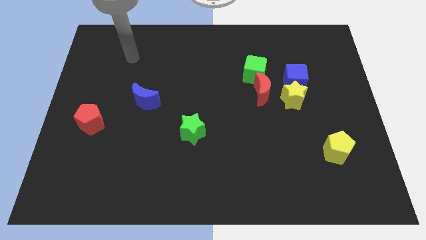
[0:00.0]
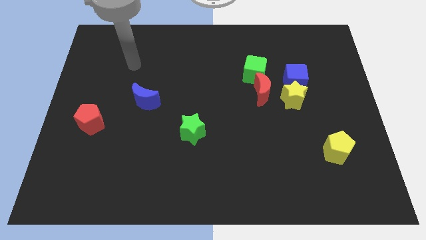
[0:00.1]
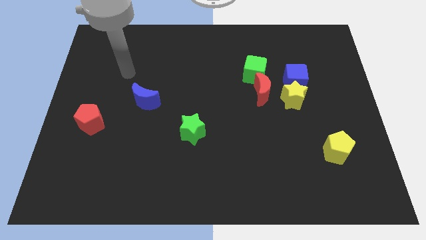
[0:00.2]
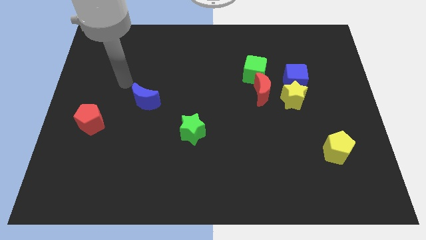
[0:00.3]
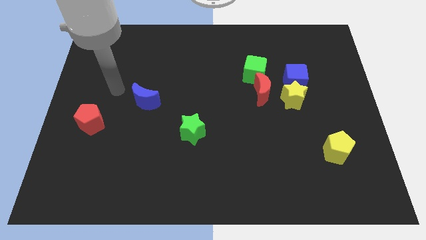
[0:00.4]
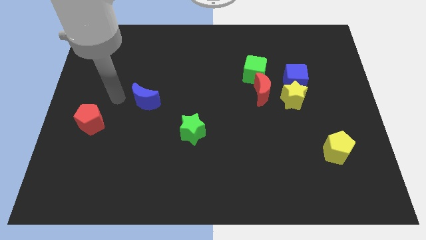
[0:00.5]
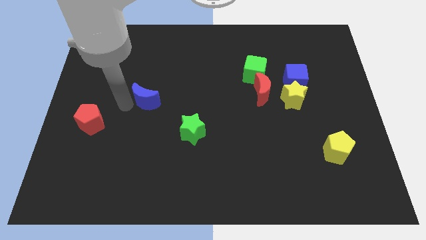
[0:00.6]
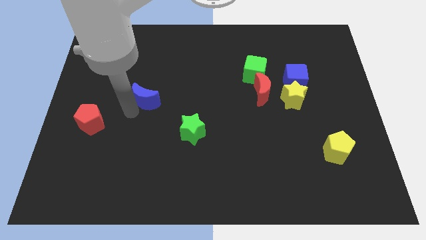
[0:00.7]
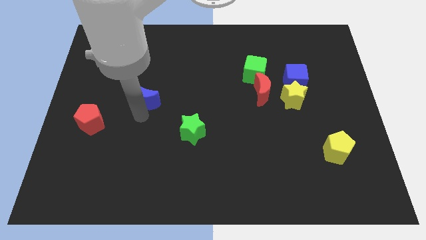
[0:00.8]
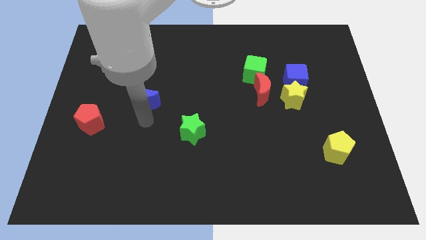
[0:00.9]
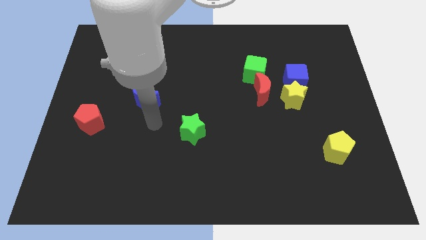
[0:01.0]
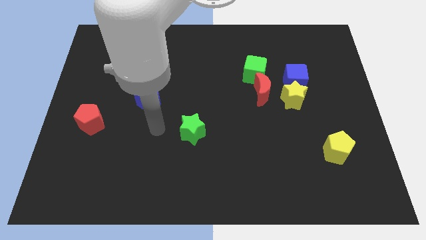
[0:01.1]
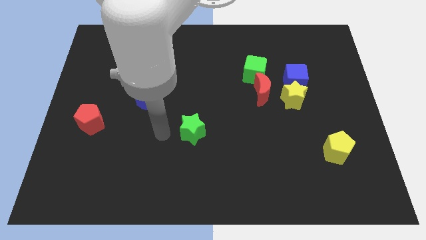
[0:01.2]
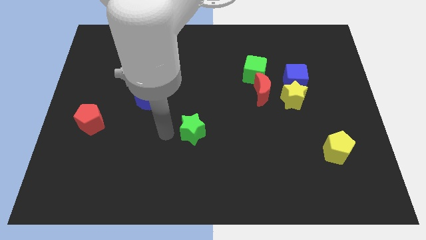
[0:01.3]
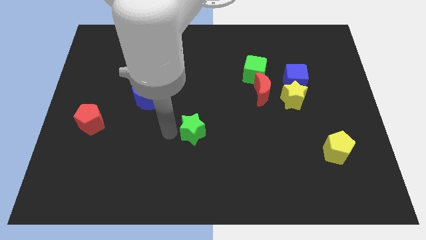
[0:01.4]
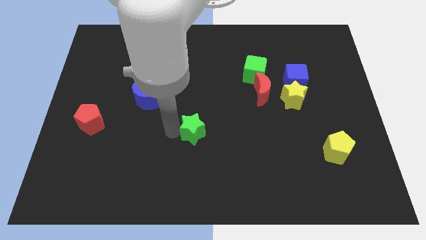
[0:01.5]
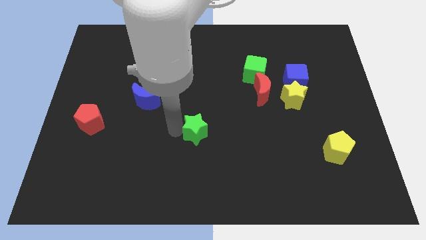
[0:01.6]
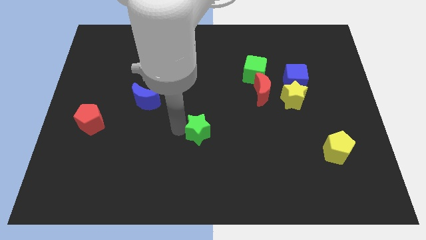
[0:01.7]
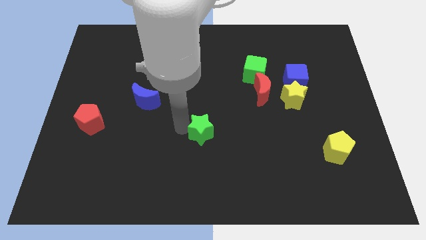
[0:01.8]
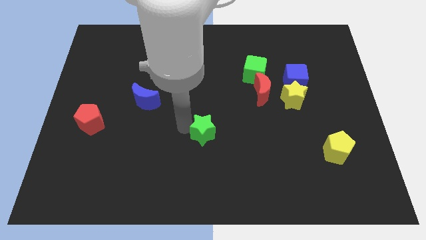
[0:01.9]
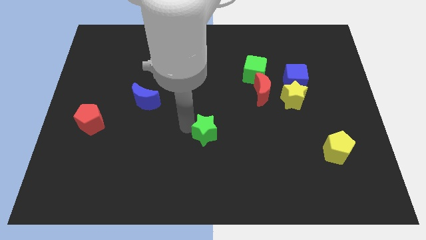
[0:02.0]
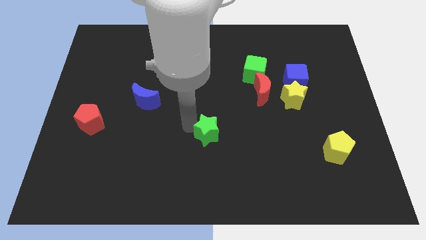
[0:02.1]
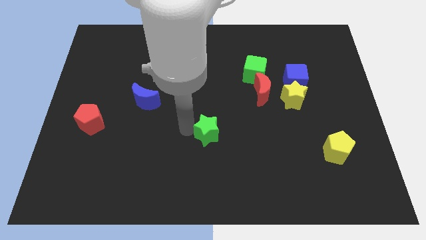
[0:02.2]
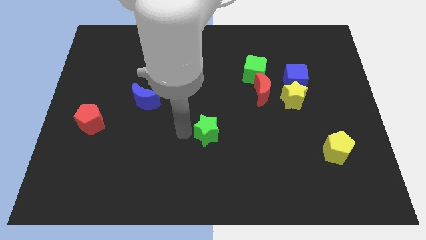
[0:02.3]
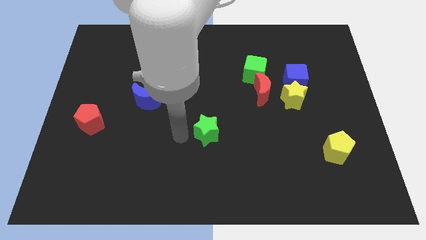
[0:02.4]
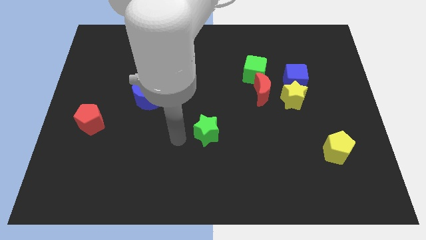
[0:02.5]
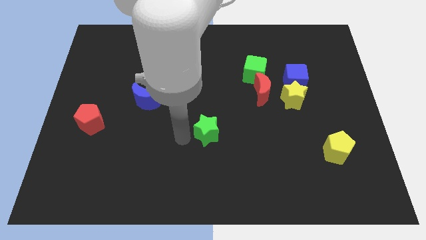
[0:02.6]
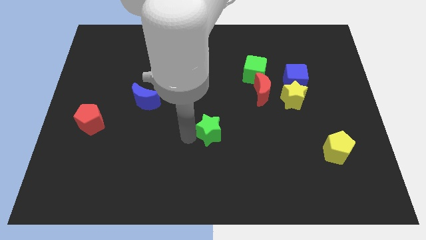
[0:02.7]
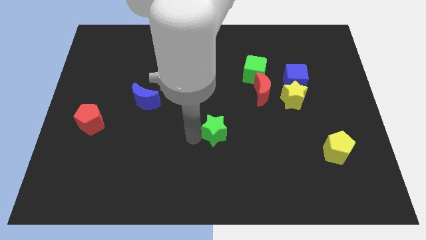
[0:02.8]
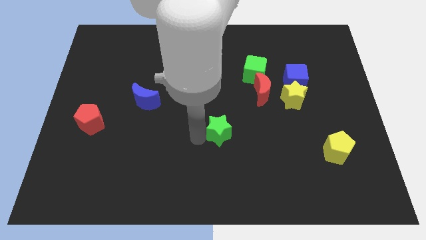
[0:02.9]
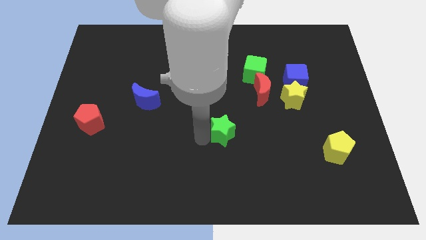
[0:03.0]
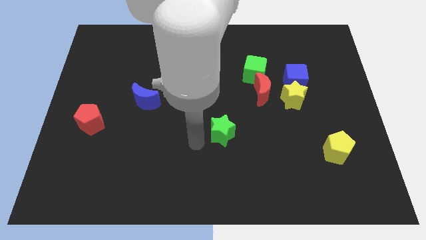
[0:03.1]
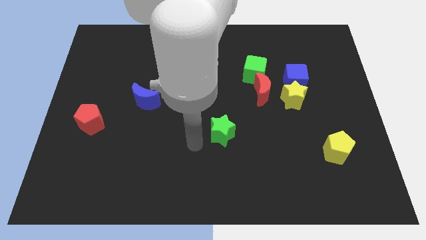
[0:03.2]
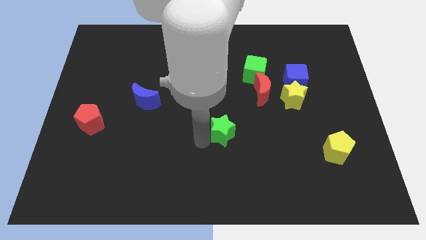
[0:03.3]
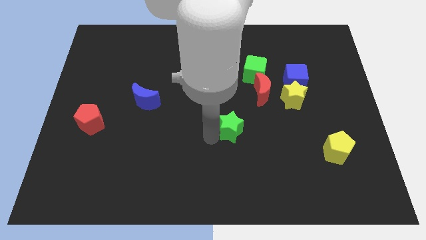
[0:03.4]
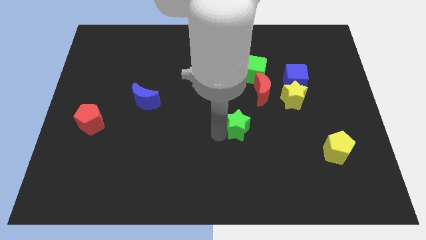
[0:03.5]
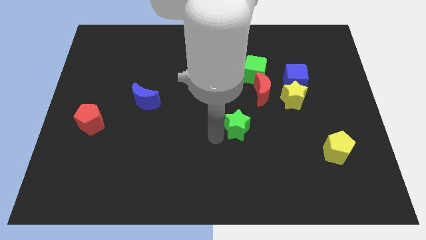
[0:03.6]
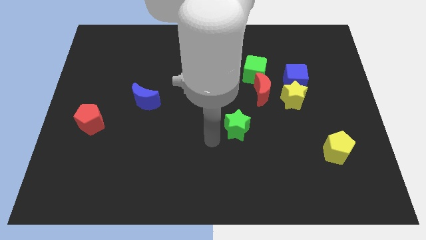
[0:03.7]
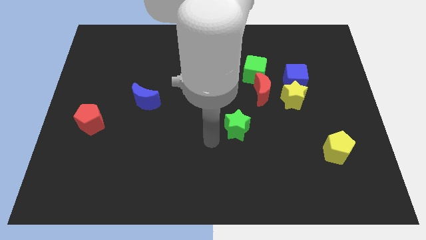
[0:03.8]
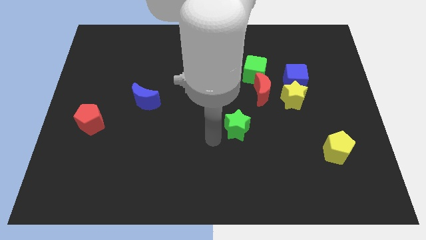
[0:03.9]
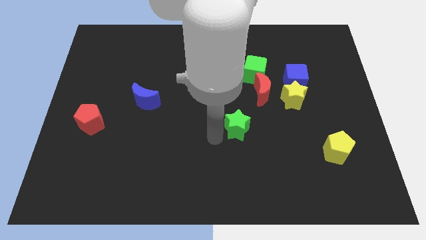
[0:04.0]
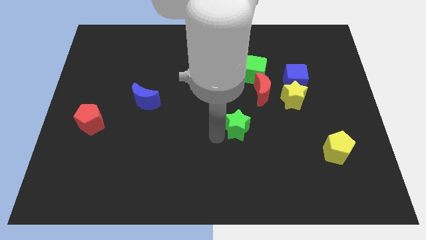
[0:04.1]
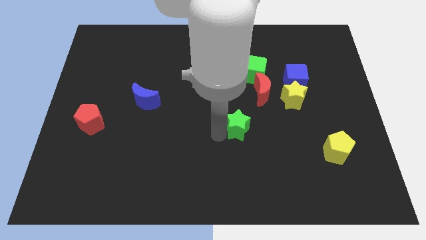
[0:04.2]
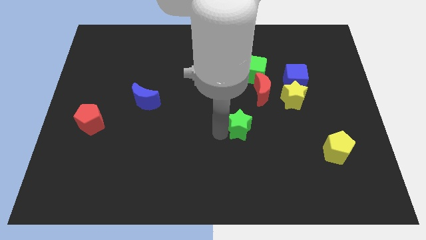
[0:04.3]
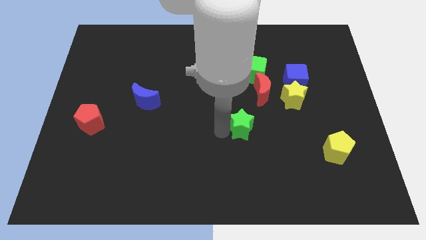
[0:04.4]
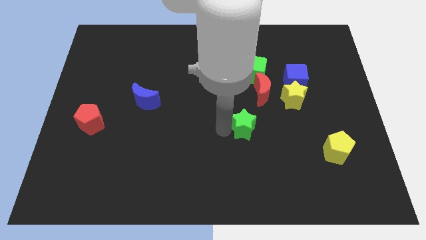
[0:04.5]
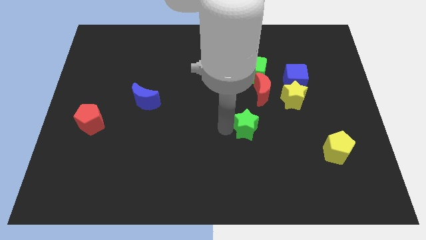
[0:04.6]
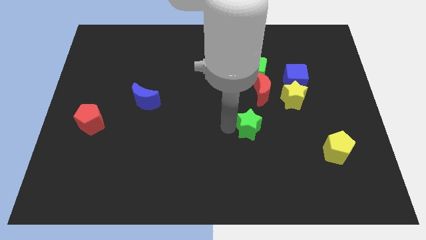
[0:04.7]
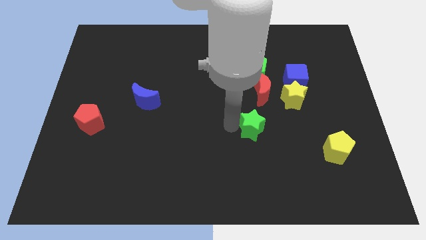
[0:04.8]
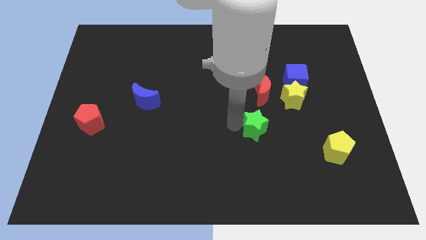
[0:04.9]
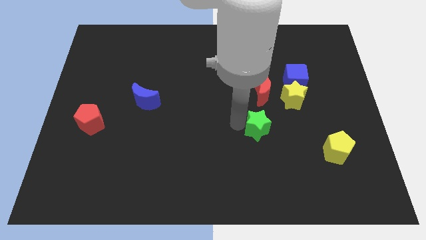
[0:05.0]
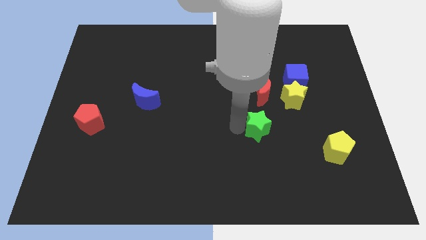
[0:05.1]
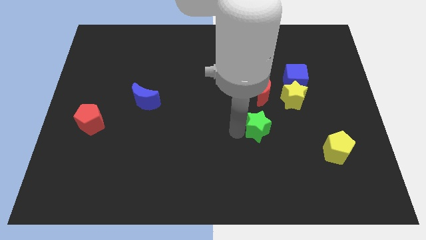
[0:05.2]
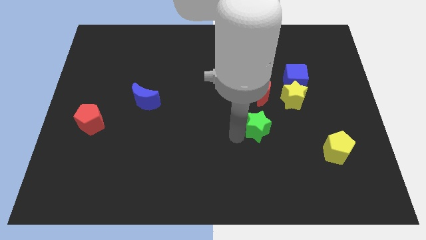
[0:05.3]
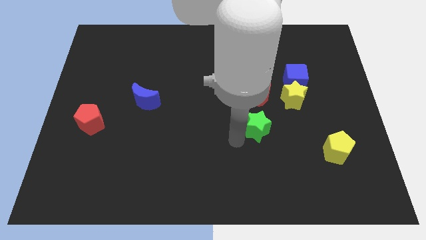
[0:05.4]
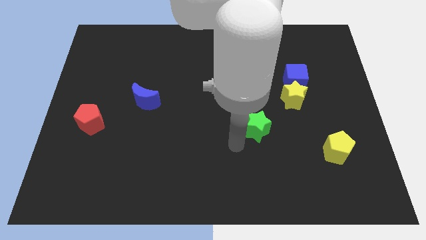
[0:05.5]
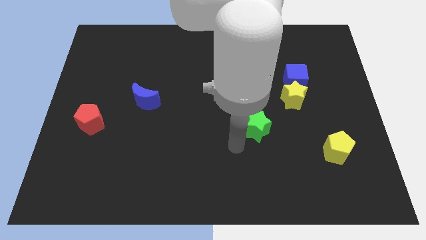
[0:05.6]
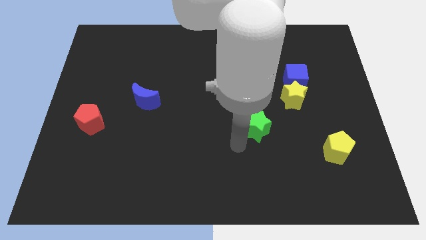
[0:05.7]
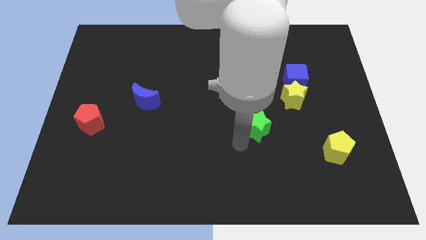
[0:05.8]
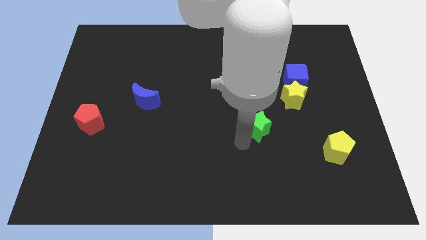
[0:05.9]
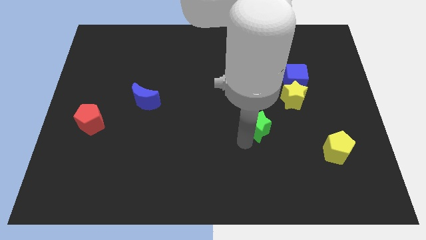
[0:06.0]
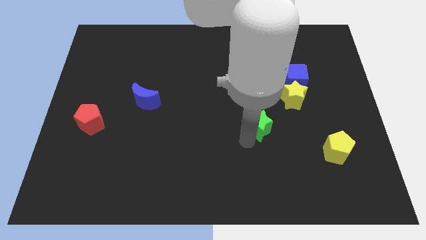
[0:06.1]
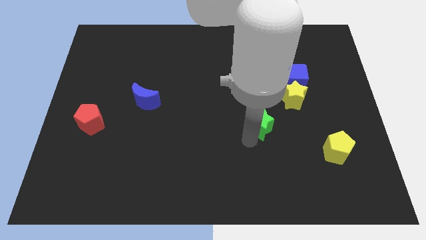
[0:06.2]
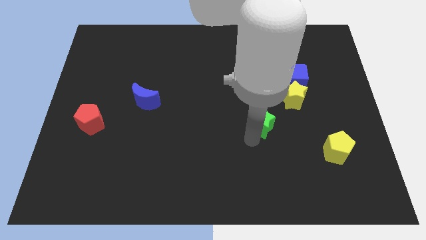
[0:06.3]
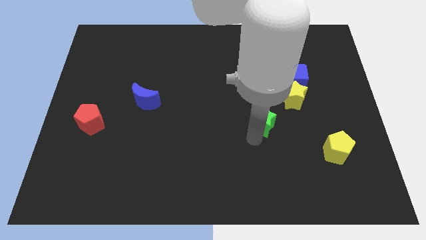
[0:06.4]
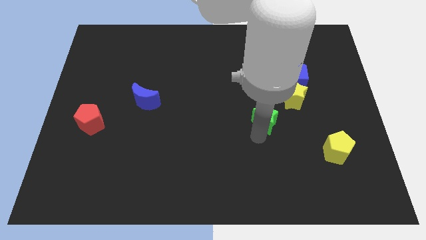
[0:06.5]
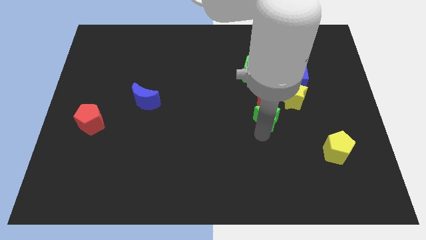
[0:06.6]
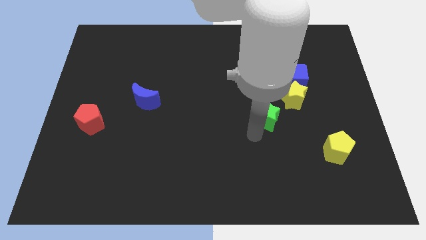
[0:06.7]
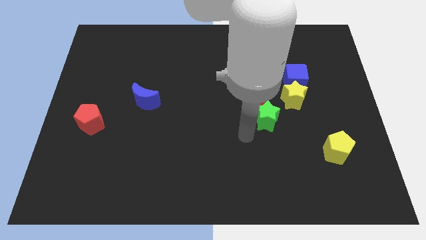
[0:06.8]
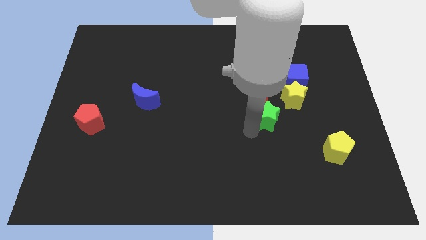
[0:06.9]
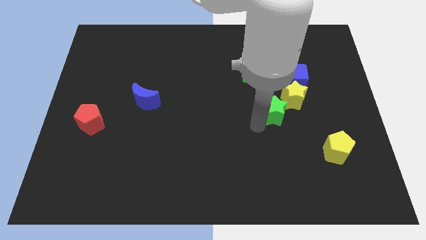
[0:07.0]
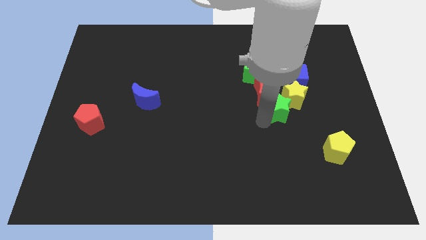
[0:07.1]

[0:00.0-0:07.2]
move the green star to the yellow star
